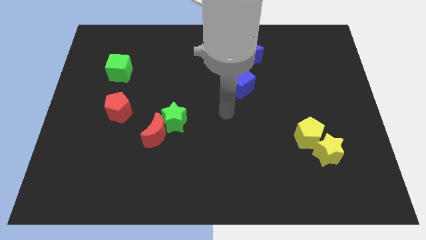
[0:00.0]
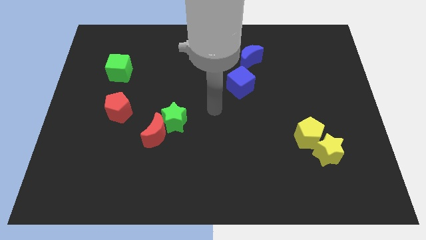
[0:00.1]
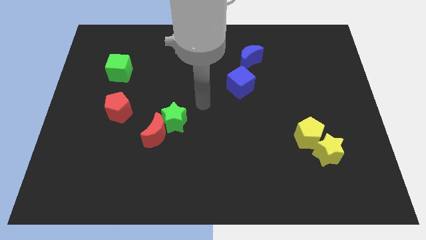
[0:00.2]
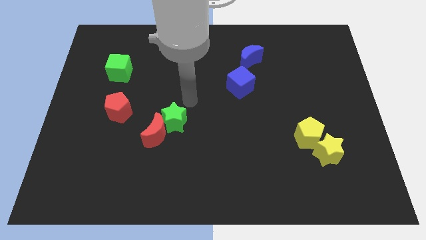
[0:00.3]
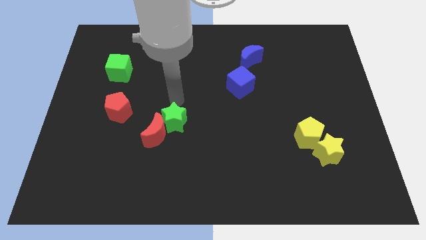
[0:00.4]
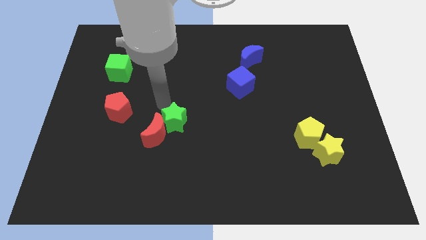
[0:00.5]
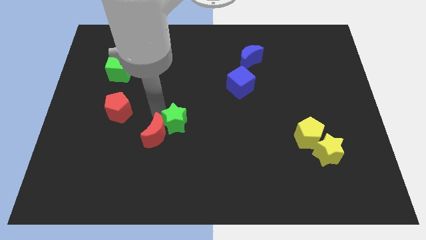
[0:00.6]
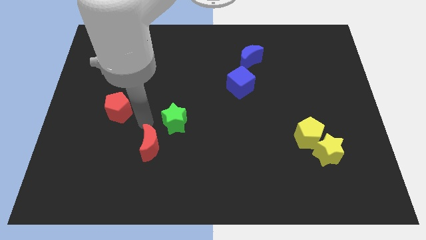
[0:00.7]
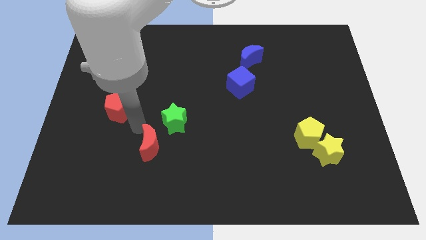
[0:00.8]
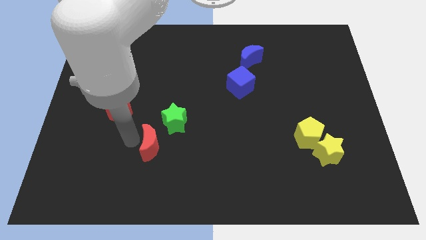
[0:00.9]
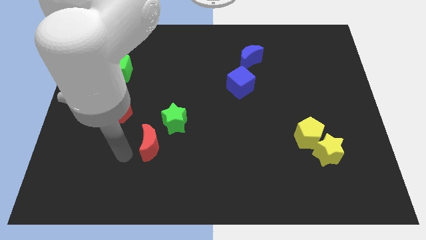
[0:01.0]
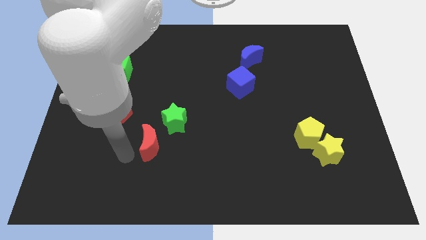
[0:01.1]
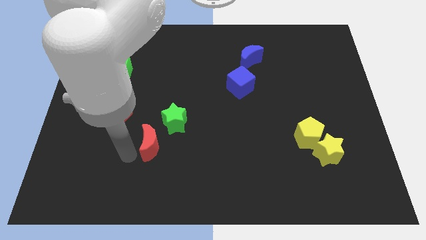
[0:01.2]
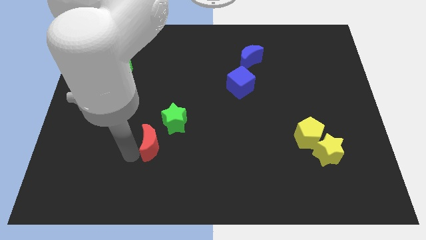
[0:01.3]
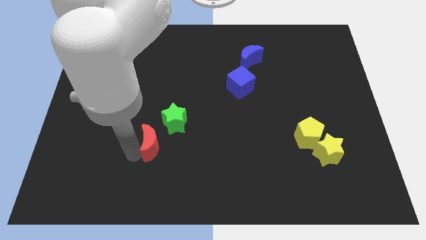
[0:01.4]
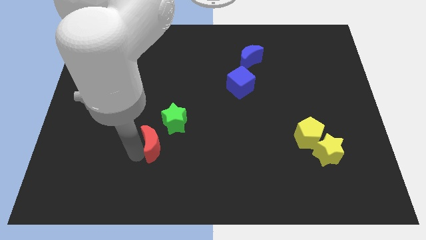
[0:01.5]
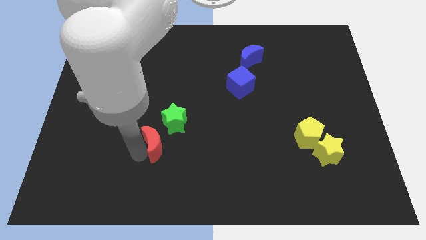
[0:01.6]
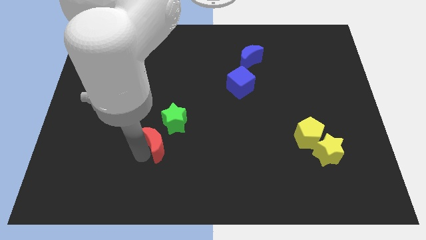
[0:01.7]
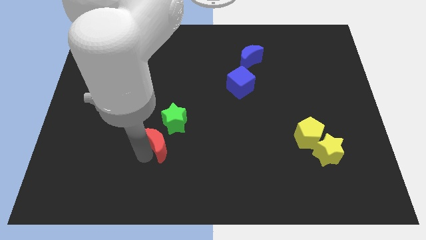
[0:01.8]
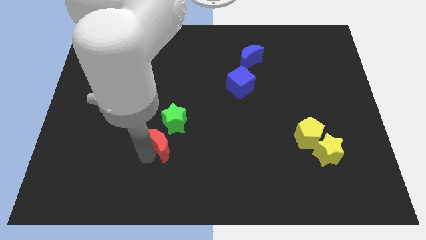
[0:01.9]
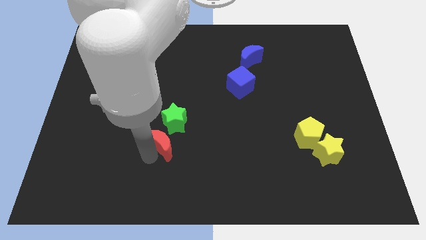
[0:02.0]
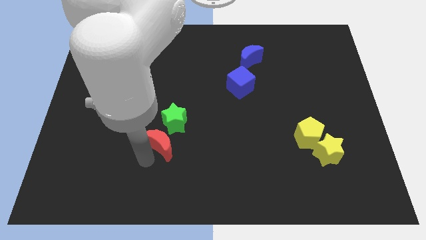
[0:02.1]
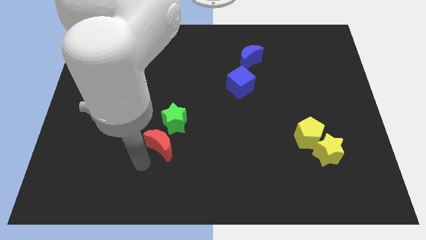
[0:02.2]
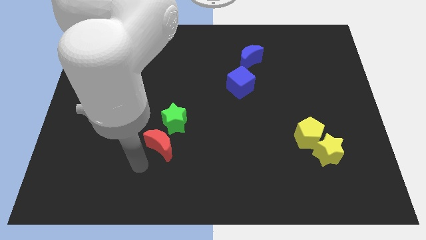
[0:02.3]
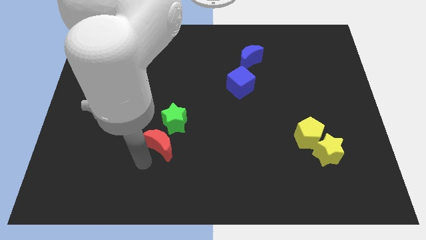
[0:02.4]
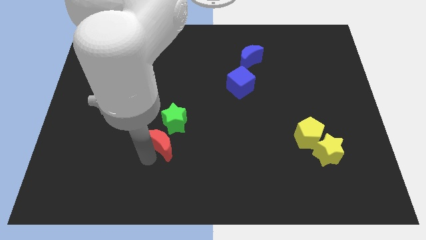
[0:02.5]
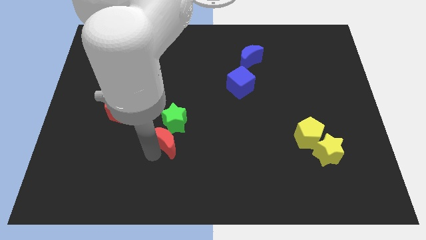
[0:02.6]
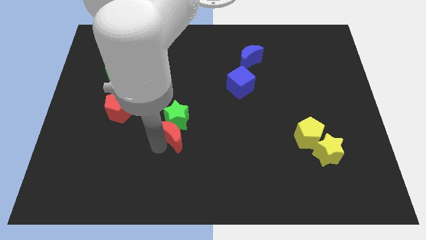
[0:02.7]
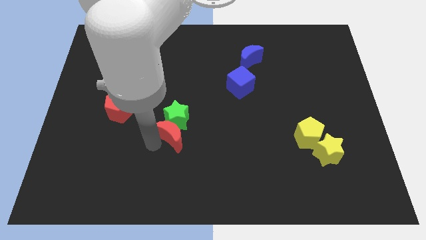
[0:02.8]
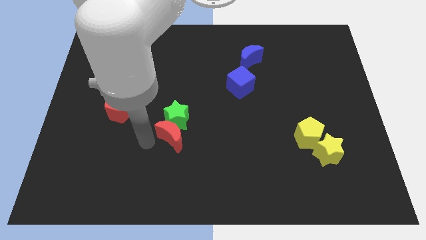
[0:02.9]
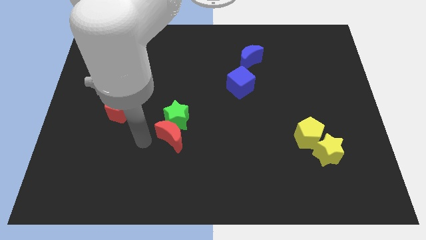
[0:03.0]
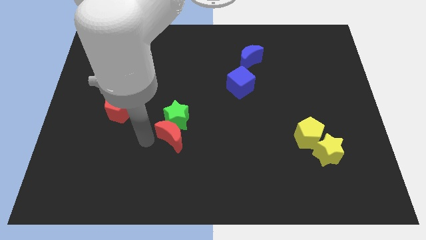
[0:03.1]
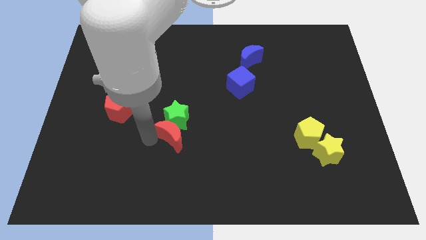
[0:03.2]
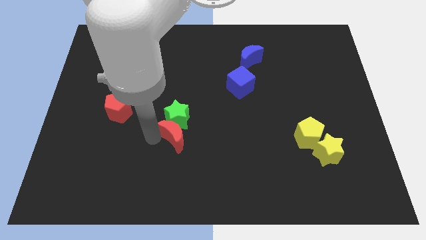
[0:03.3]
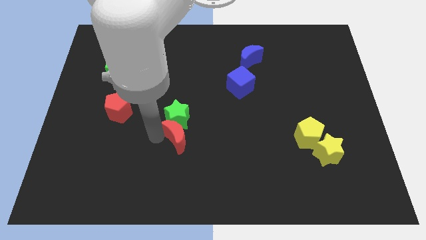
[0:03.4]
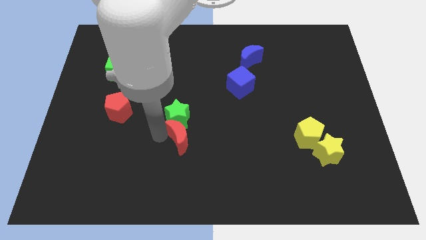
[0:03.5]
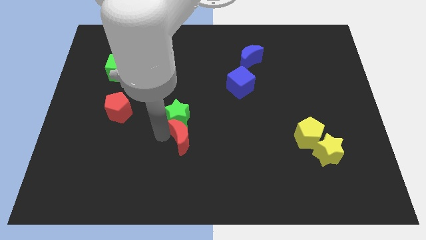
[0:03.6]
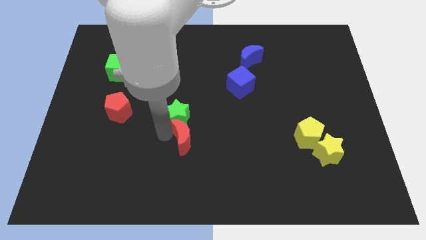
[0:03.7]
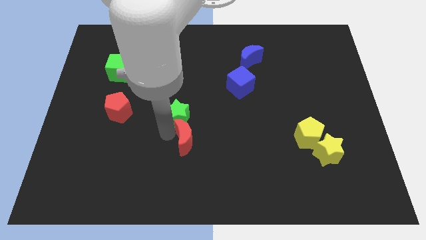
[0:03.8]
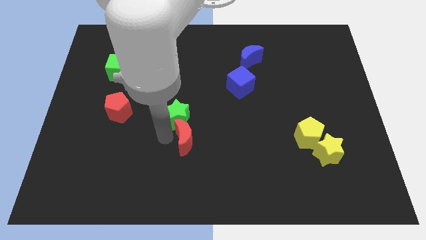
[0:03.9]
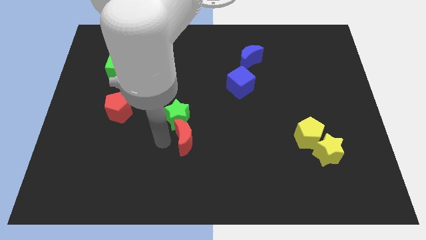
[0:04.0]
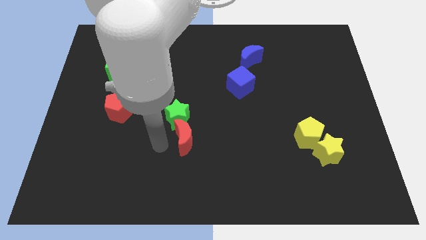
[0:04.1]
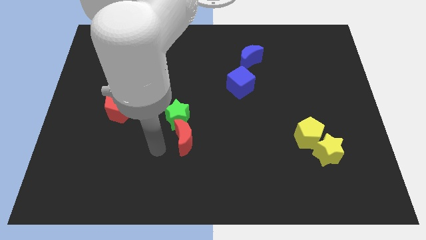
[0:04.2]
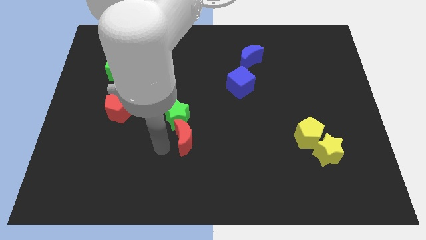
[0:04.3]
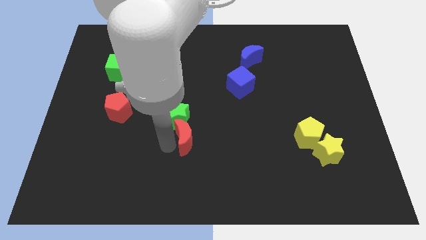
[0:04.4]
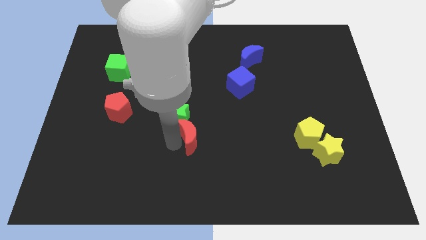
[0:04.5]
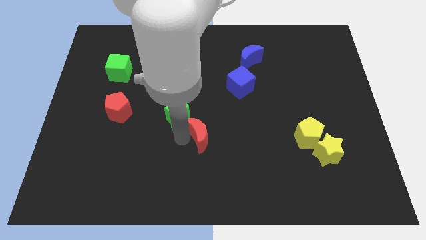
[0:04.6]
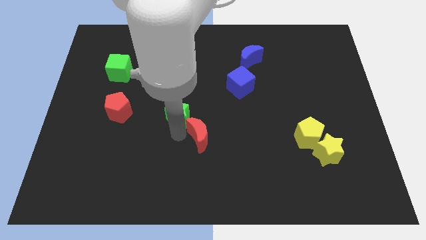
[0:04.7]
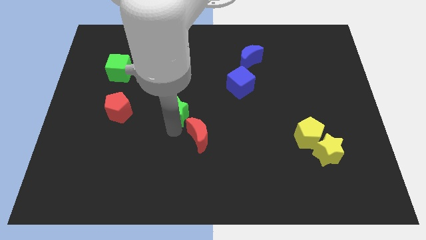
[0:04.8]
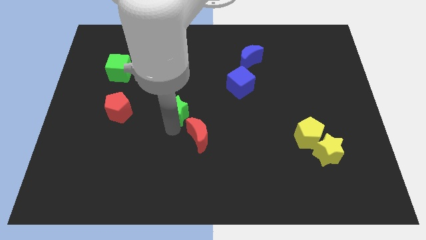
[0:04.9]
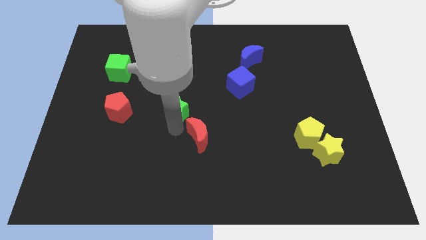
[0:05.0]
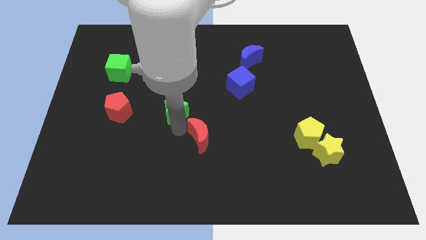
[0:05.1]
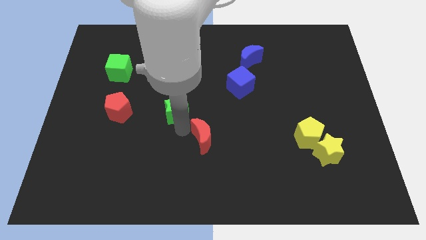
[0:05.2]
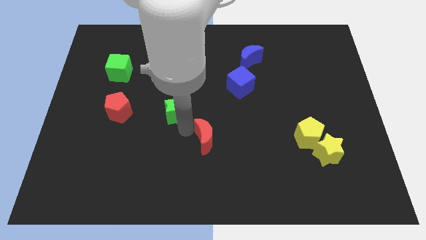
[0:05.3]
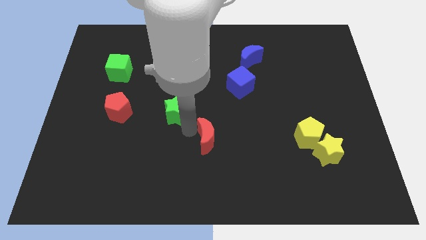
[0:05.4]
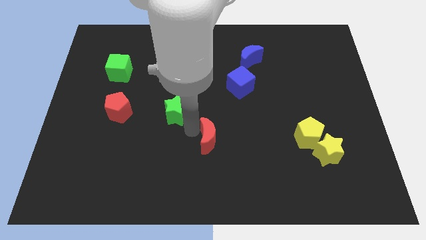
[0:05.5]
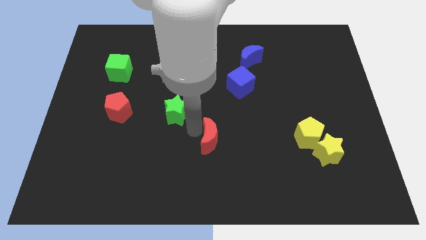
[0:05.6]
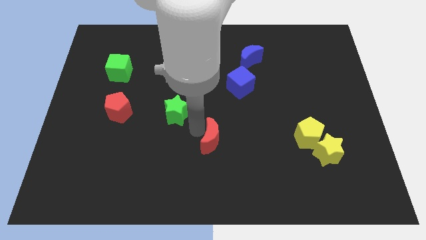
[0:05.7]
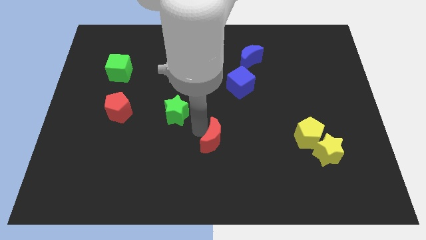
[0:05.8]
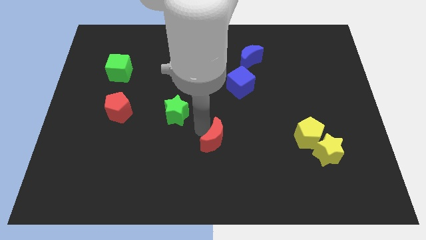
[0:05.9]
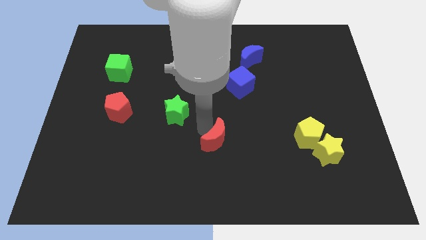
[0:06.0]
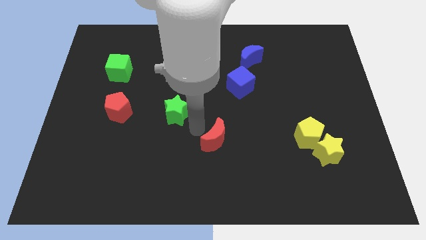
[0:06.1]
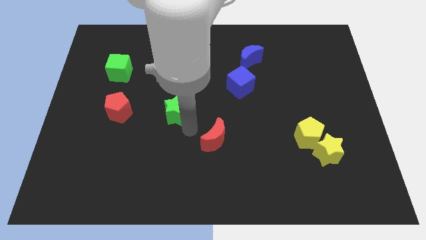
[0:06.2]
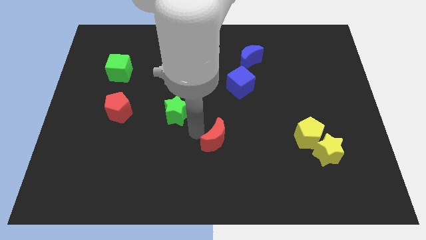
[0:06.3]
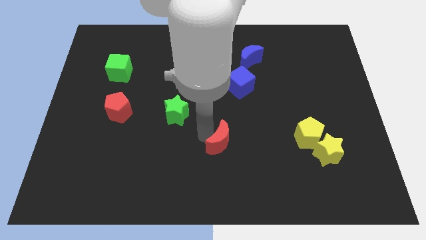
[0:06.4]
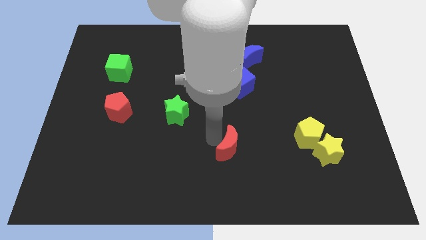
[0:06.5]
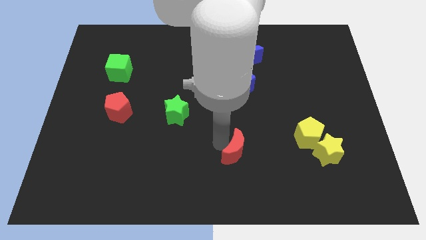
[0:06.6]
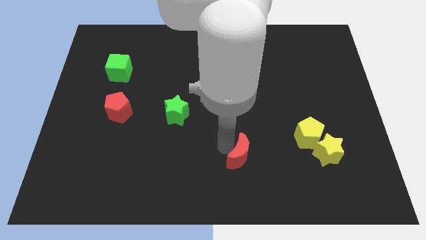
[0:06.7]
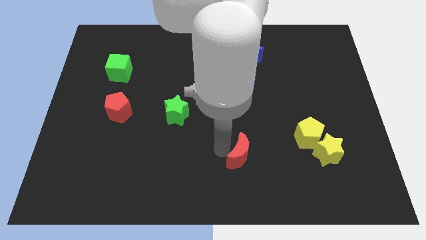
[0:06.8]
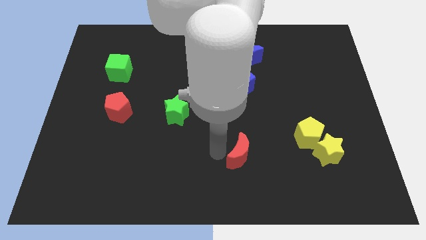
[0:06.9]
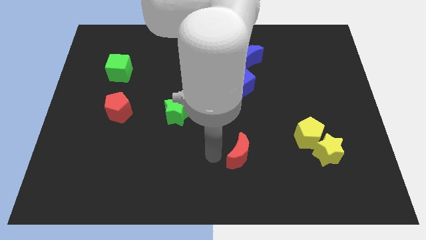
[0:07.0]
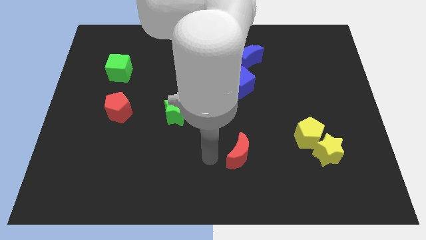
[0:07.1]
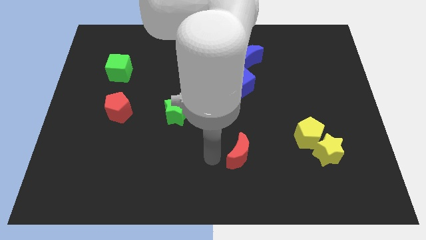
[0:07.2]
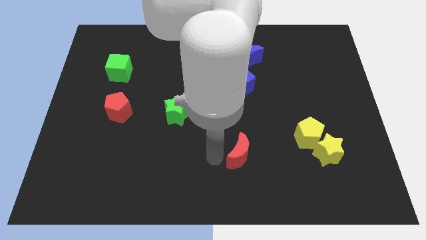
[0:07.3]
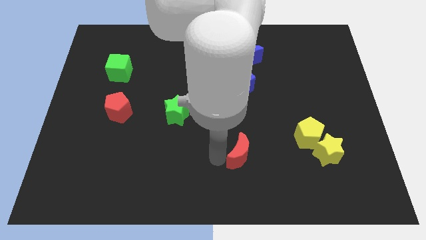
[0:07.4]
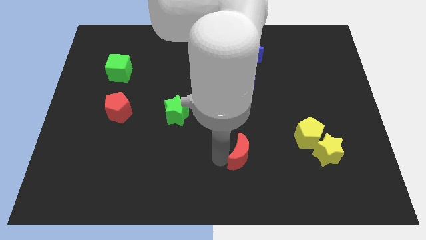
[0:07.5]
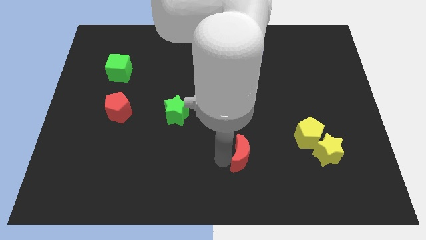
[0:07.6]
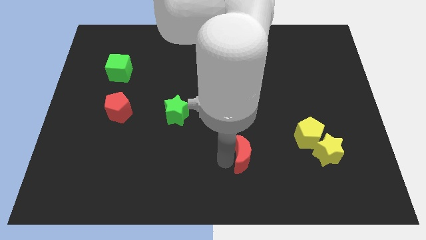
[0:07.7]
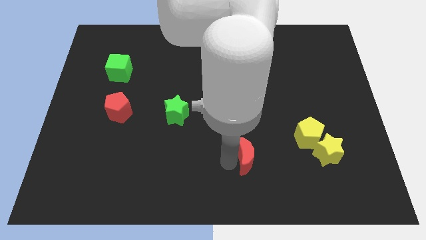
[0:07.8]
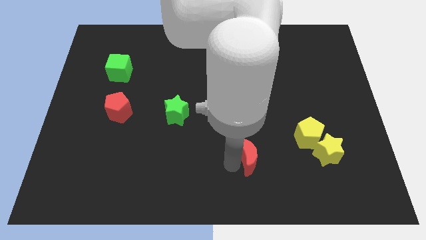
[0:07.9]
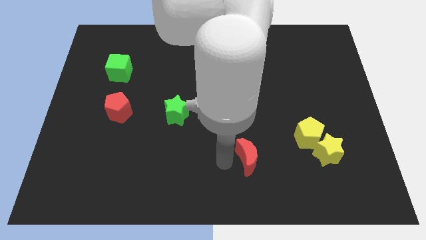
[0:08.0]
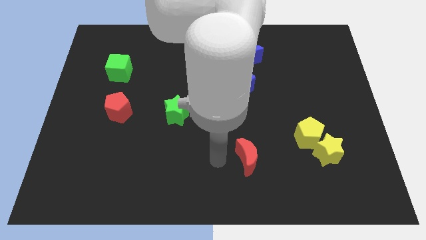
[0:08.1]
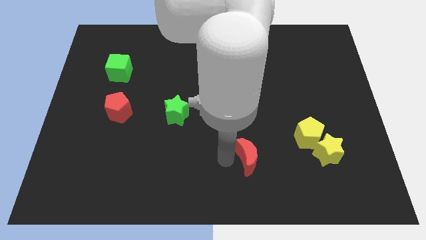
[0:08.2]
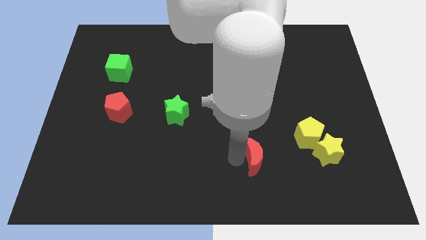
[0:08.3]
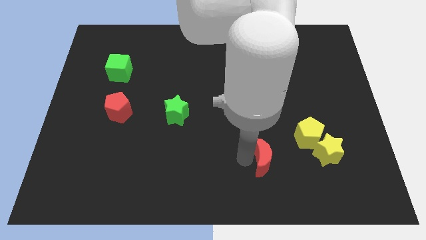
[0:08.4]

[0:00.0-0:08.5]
slide the red moon diagonally down and to the left of the yellow pentagon
